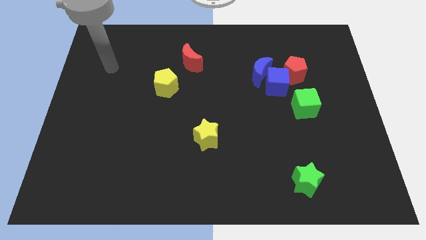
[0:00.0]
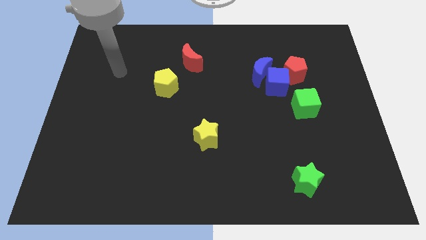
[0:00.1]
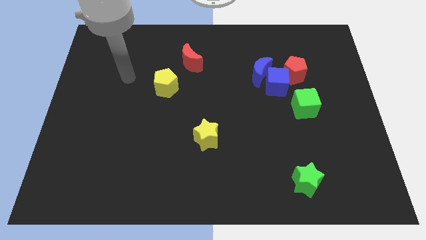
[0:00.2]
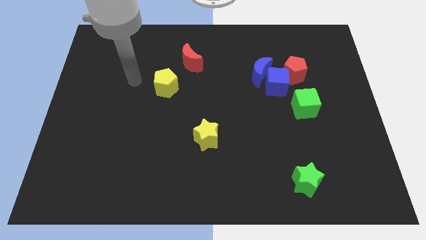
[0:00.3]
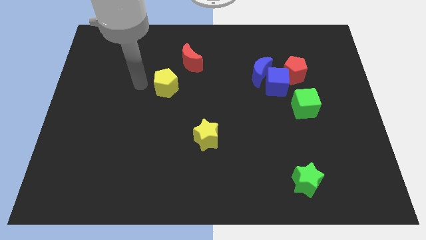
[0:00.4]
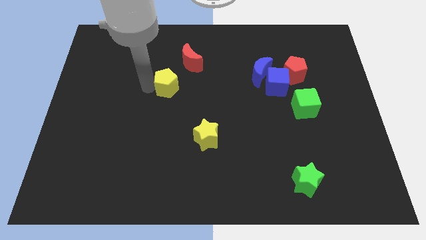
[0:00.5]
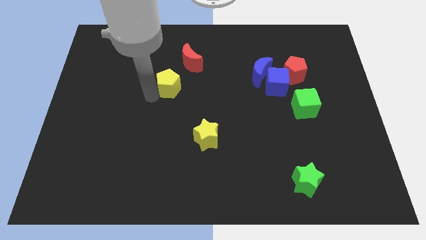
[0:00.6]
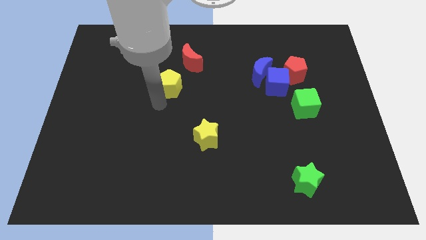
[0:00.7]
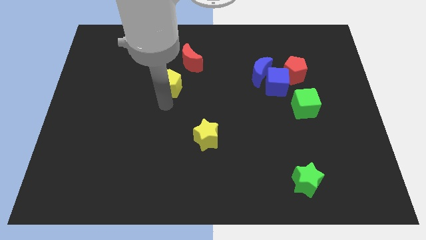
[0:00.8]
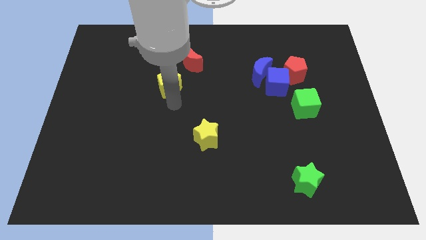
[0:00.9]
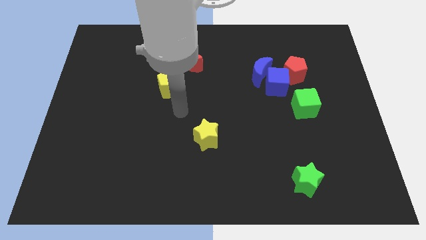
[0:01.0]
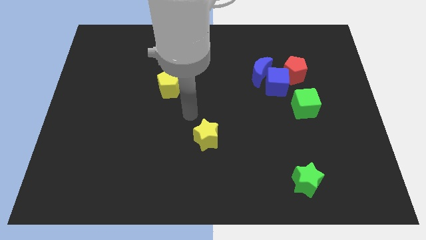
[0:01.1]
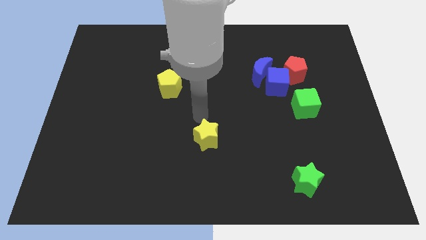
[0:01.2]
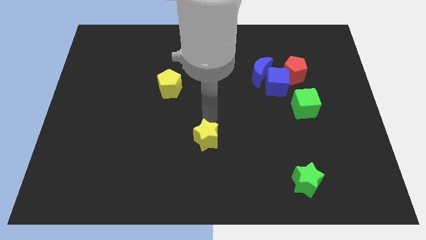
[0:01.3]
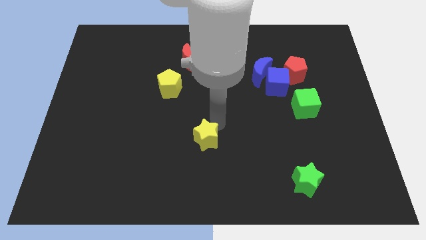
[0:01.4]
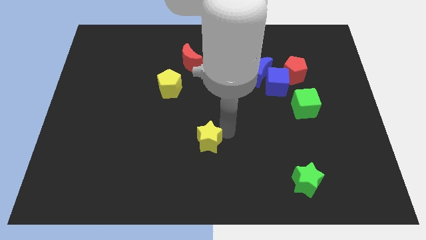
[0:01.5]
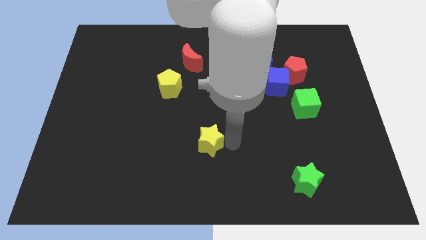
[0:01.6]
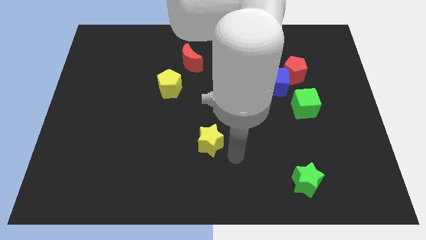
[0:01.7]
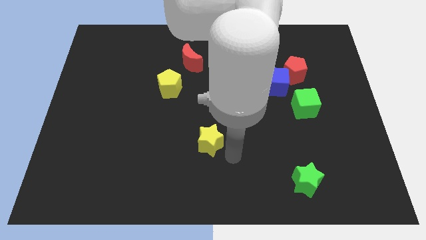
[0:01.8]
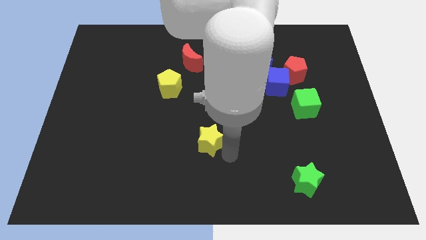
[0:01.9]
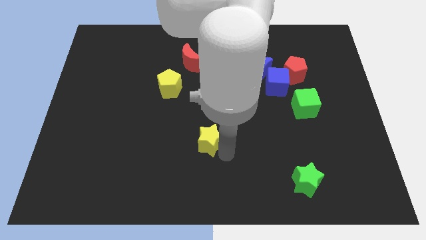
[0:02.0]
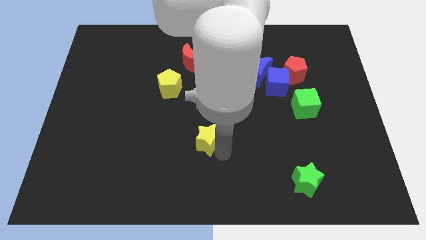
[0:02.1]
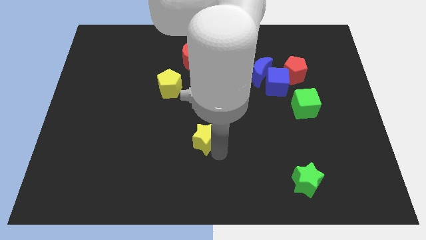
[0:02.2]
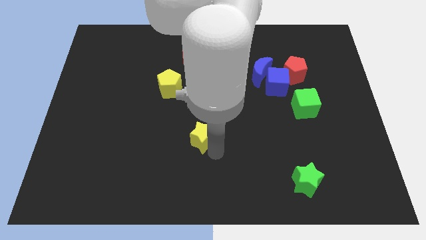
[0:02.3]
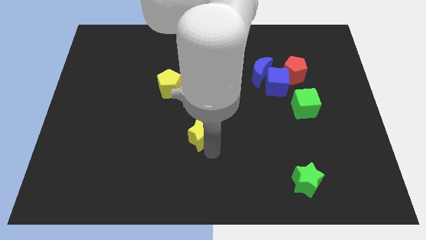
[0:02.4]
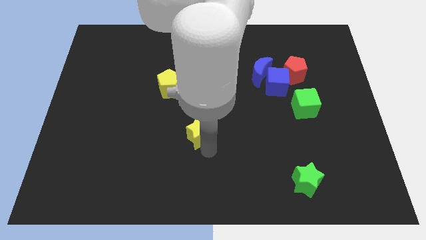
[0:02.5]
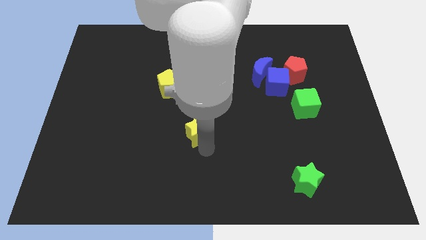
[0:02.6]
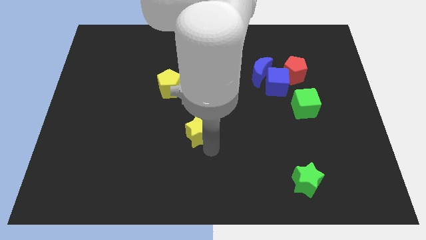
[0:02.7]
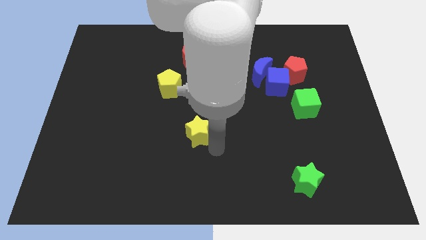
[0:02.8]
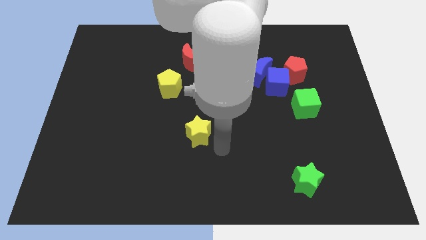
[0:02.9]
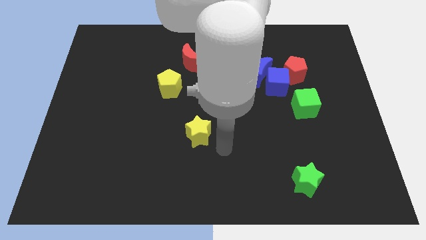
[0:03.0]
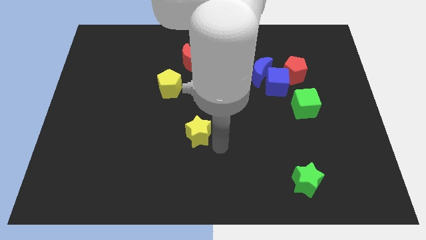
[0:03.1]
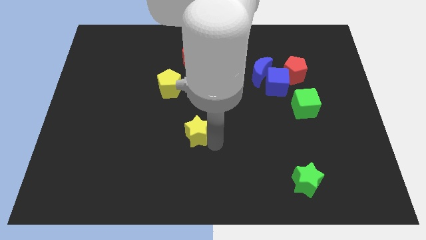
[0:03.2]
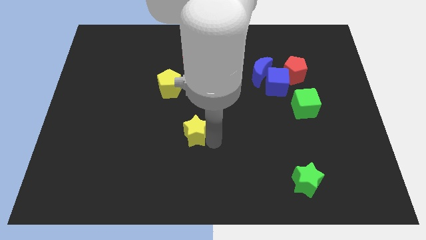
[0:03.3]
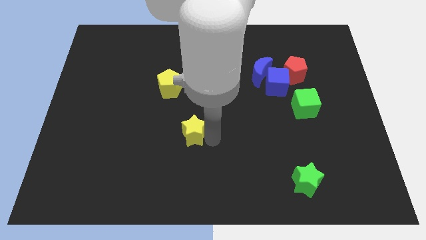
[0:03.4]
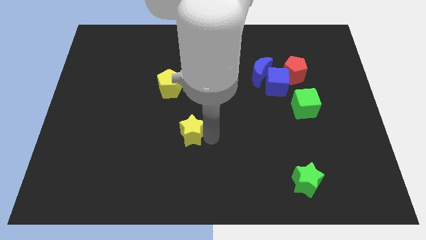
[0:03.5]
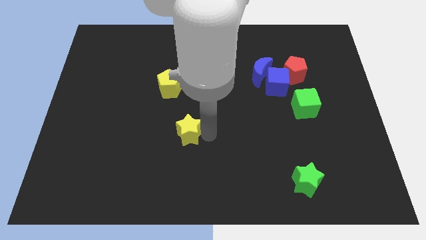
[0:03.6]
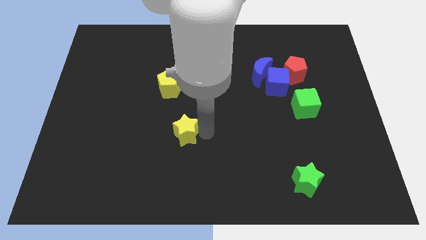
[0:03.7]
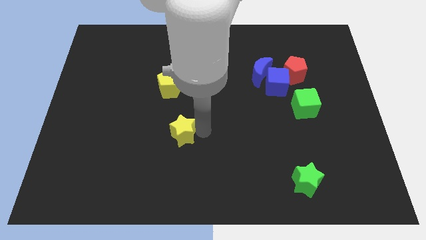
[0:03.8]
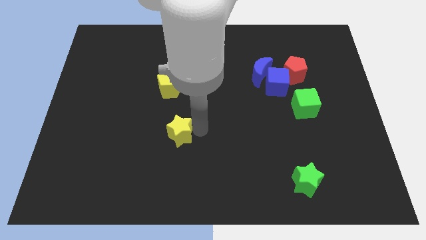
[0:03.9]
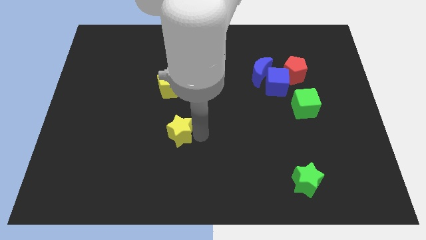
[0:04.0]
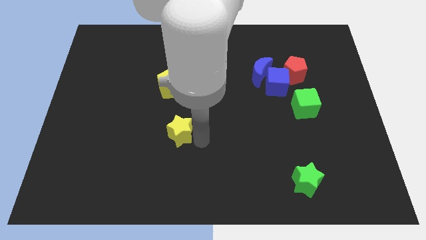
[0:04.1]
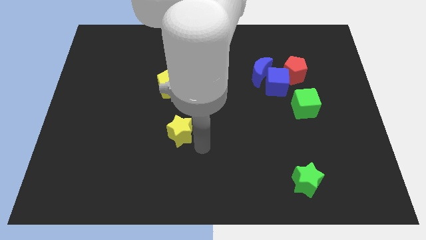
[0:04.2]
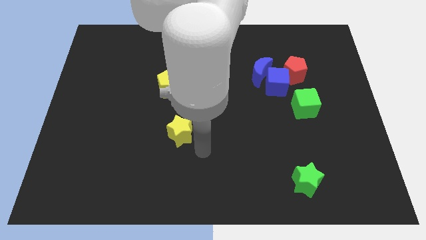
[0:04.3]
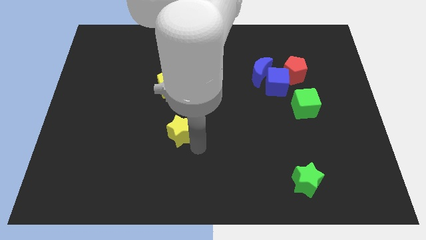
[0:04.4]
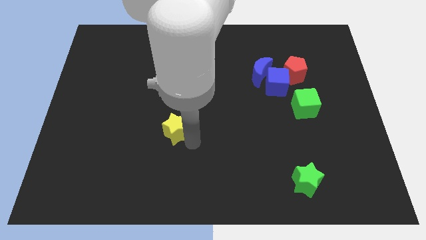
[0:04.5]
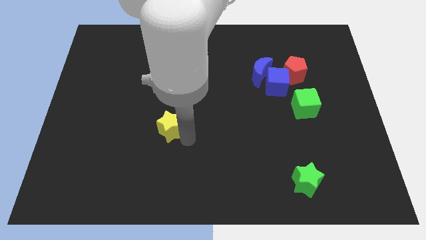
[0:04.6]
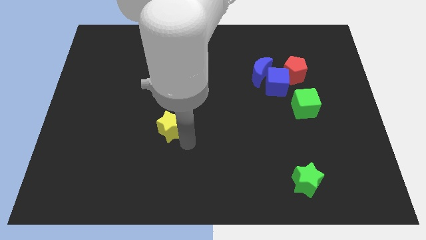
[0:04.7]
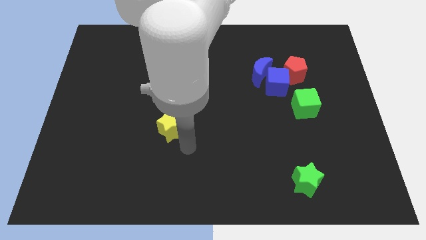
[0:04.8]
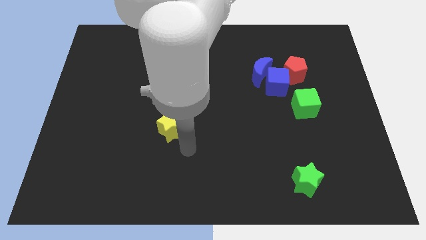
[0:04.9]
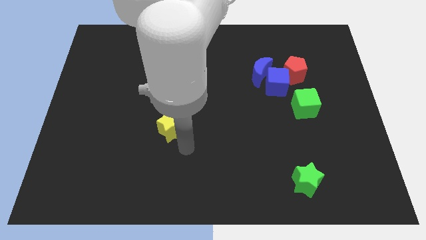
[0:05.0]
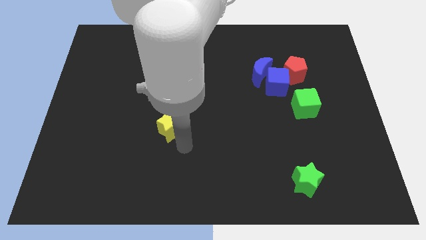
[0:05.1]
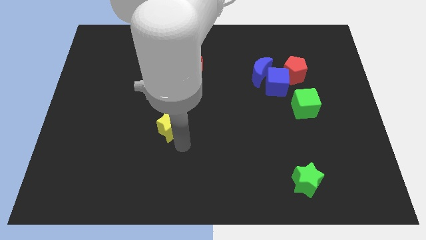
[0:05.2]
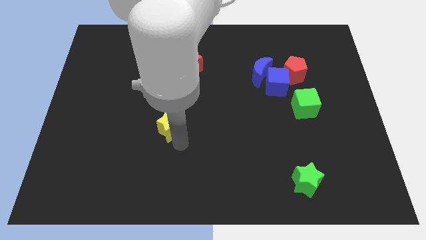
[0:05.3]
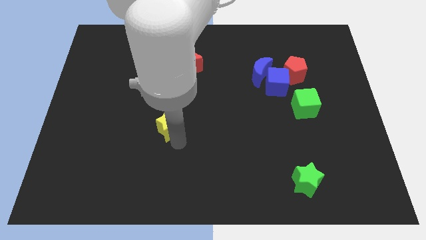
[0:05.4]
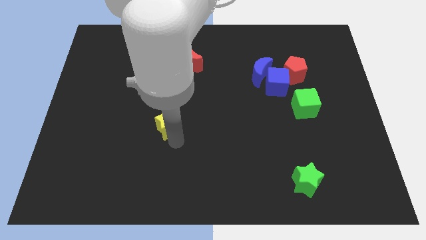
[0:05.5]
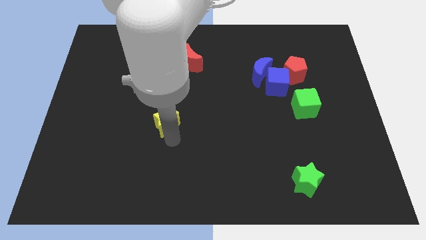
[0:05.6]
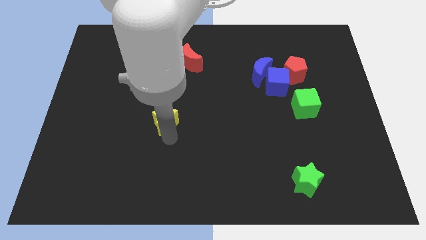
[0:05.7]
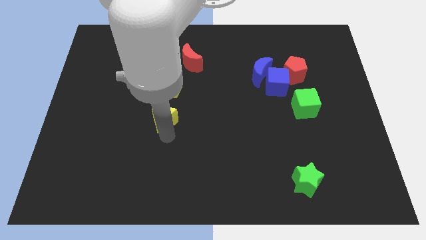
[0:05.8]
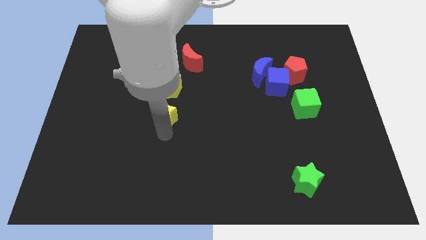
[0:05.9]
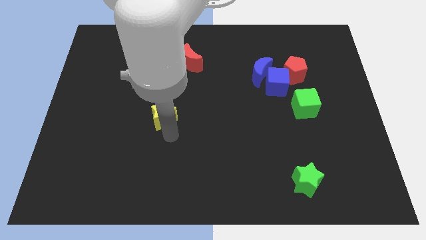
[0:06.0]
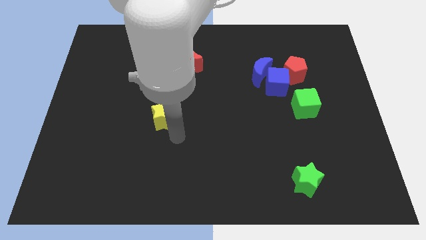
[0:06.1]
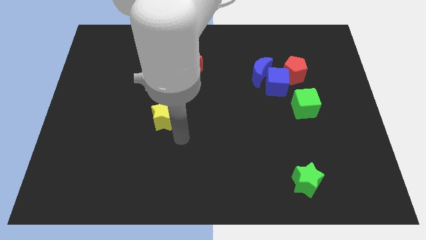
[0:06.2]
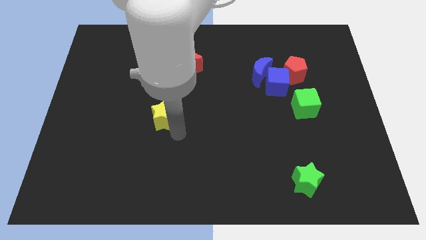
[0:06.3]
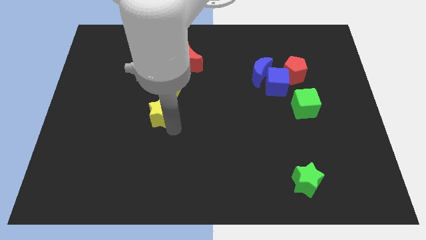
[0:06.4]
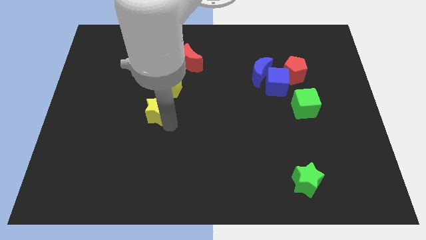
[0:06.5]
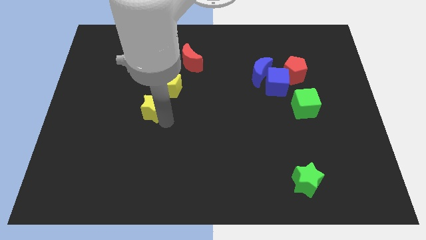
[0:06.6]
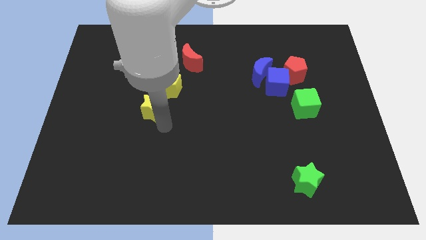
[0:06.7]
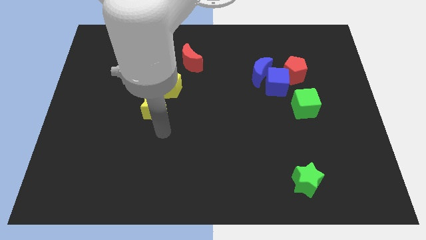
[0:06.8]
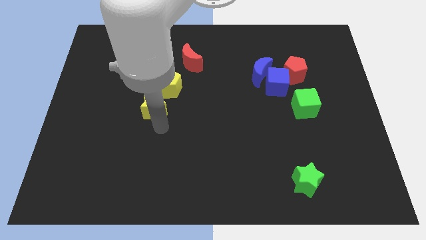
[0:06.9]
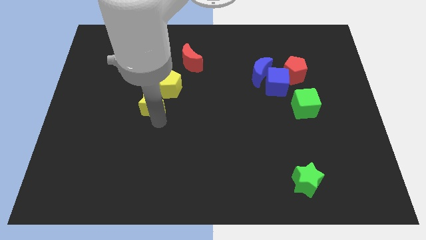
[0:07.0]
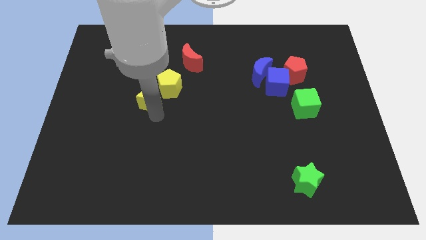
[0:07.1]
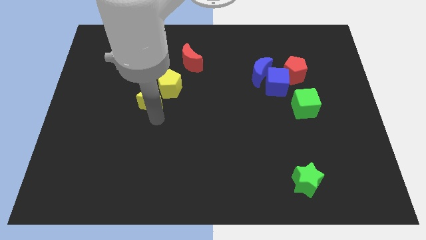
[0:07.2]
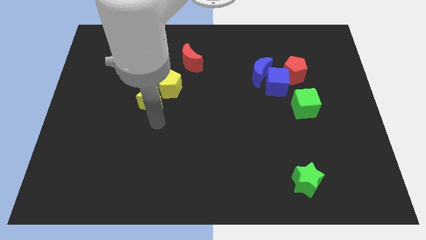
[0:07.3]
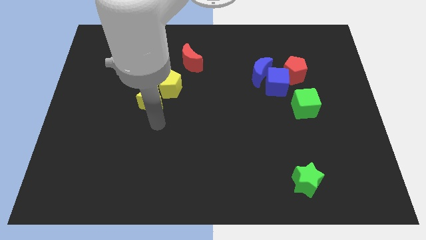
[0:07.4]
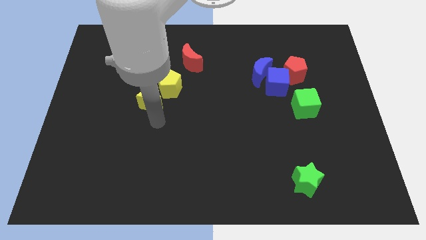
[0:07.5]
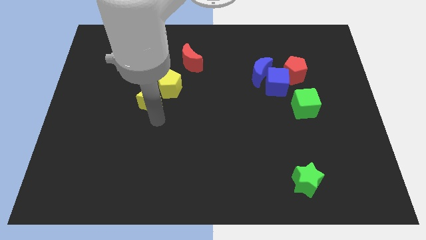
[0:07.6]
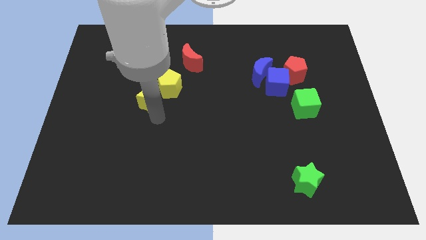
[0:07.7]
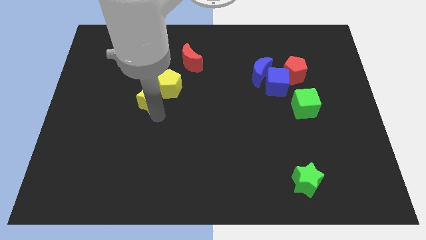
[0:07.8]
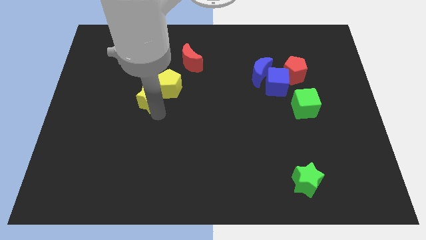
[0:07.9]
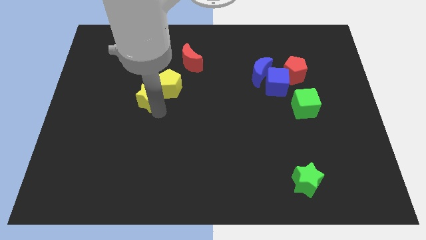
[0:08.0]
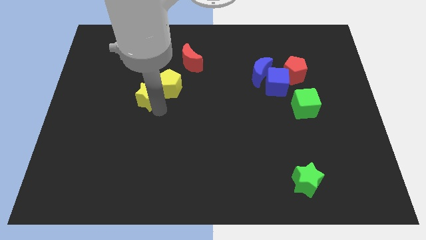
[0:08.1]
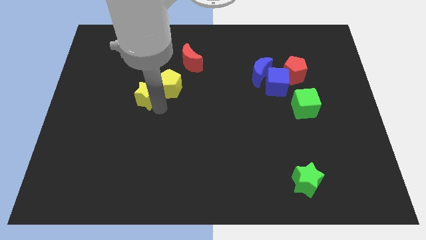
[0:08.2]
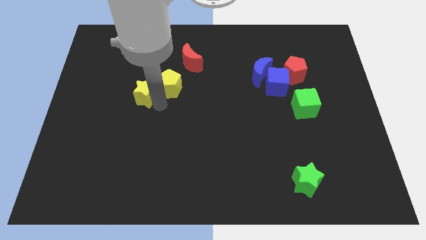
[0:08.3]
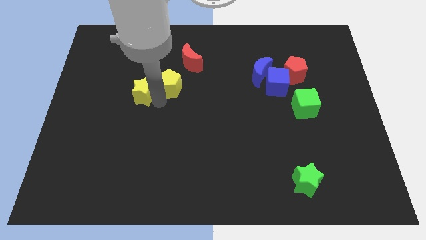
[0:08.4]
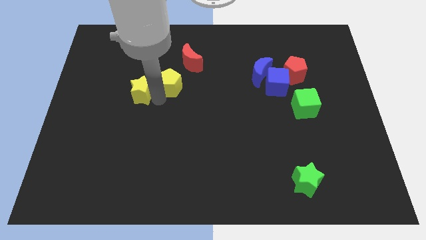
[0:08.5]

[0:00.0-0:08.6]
slide the yellow star up and left diagonally
